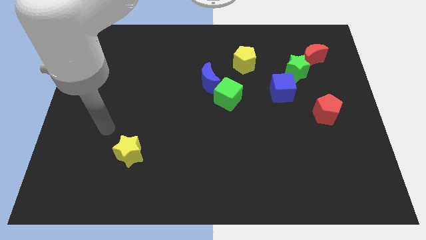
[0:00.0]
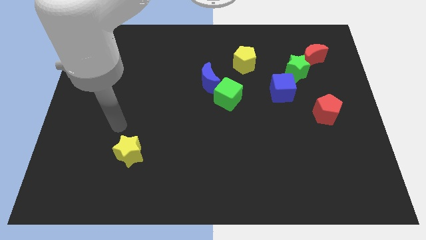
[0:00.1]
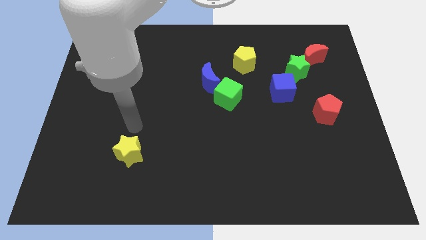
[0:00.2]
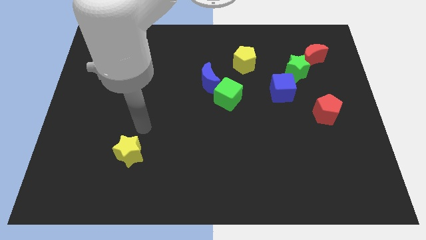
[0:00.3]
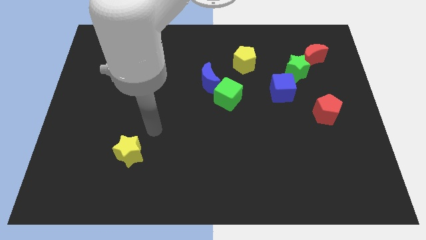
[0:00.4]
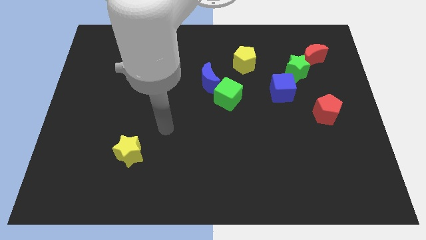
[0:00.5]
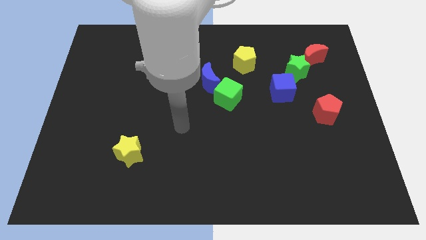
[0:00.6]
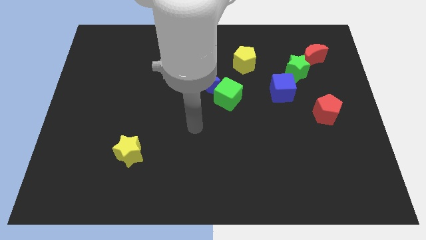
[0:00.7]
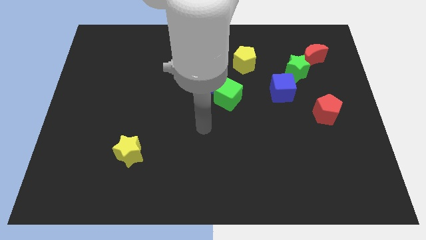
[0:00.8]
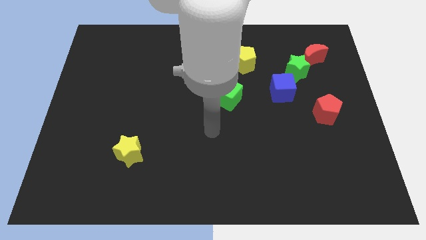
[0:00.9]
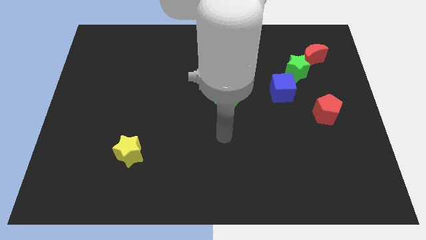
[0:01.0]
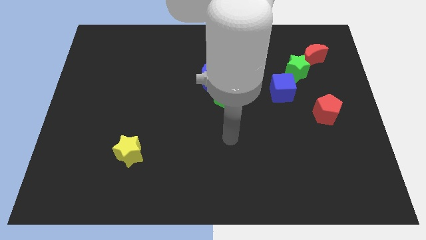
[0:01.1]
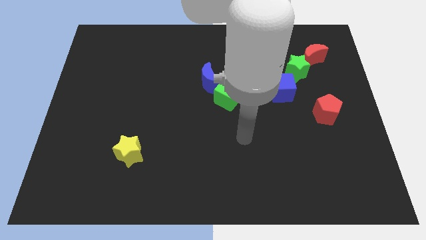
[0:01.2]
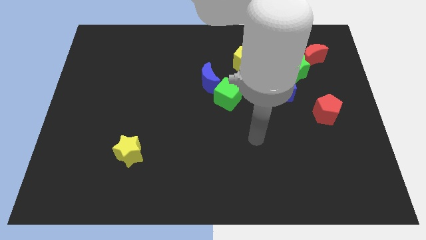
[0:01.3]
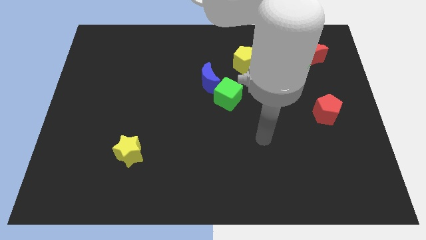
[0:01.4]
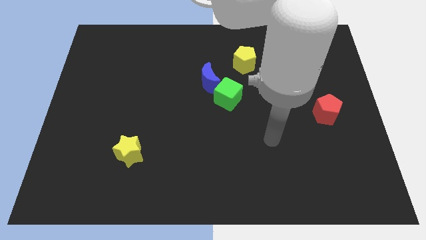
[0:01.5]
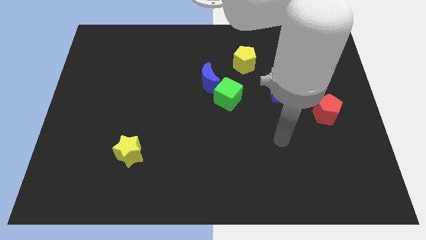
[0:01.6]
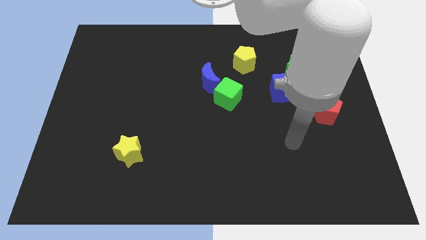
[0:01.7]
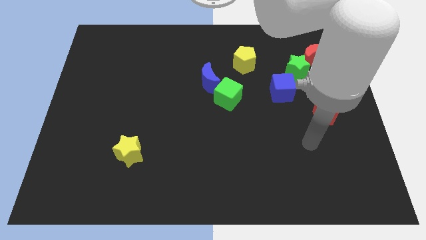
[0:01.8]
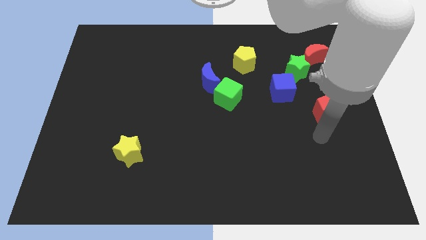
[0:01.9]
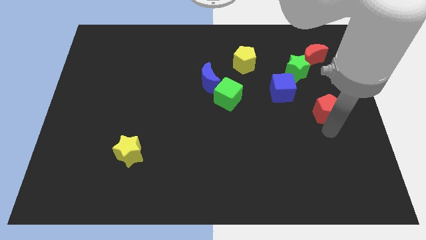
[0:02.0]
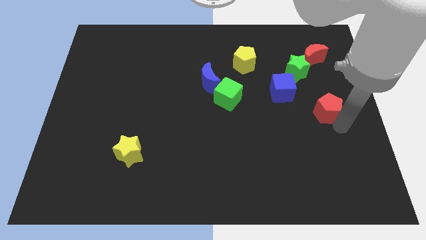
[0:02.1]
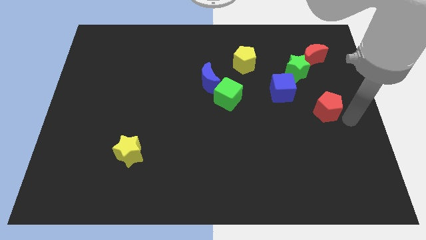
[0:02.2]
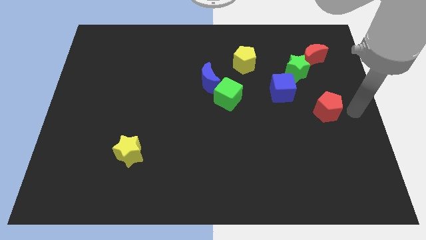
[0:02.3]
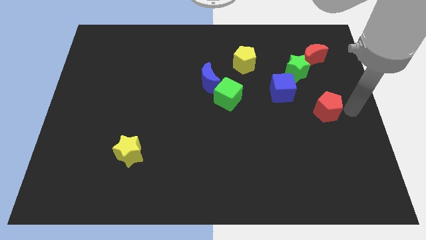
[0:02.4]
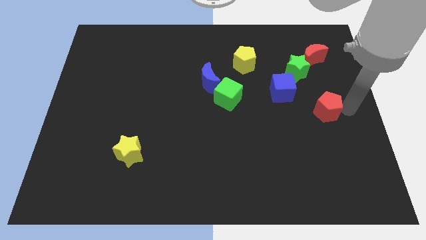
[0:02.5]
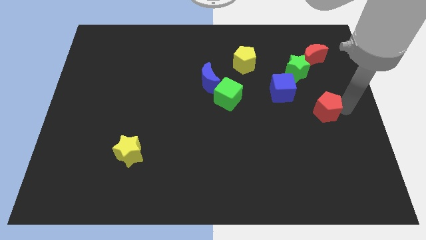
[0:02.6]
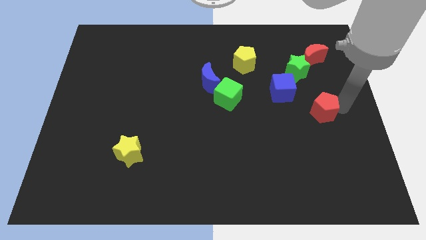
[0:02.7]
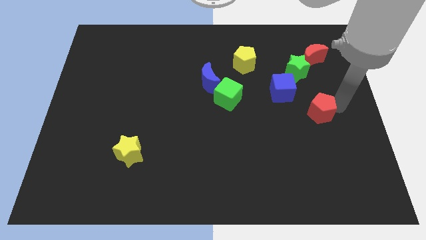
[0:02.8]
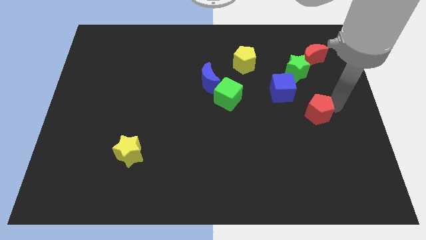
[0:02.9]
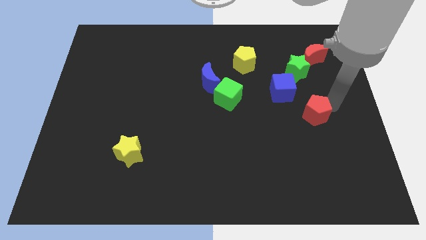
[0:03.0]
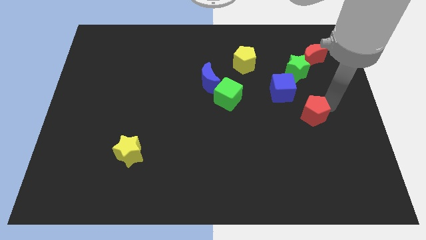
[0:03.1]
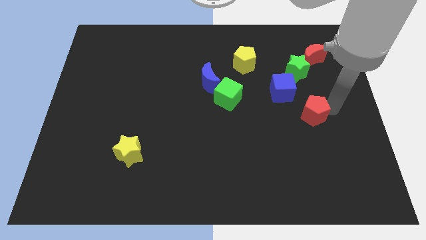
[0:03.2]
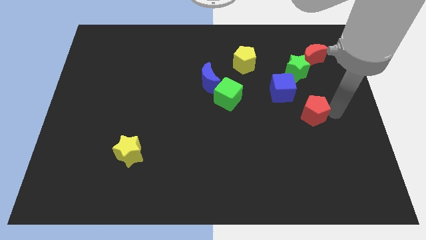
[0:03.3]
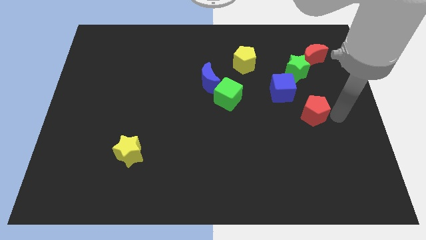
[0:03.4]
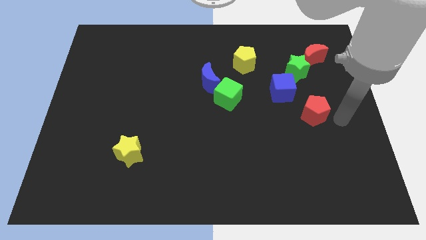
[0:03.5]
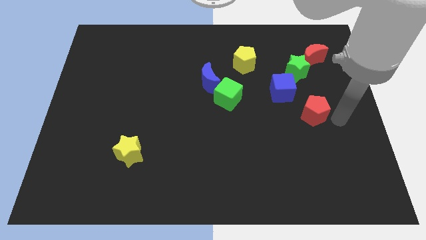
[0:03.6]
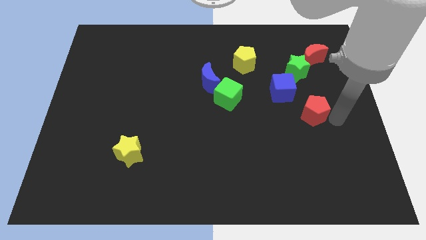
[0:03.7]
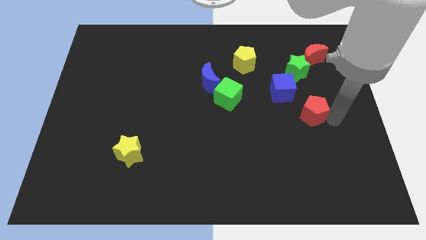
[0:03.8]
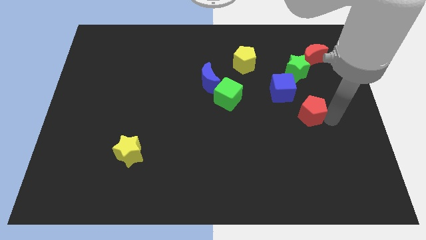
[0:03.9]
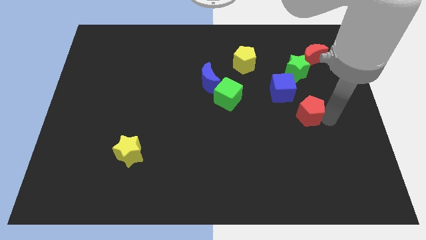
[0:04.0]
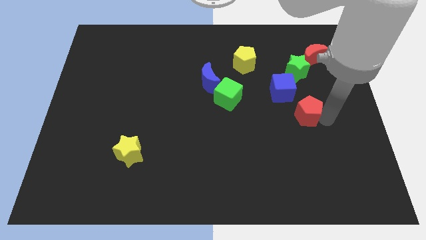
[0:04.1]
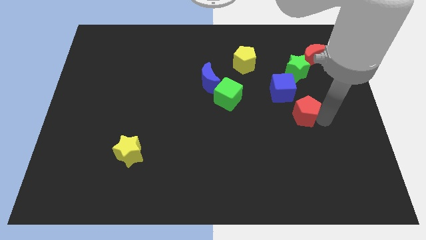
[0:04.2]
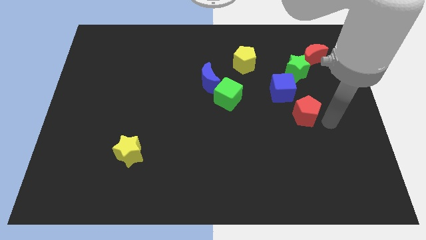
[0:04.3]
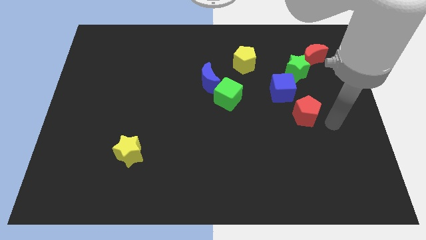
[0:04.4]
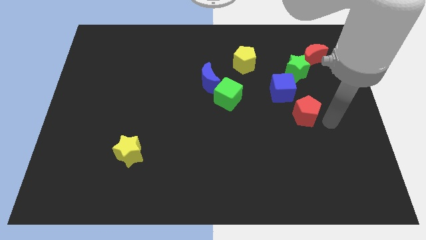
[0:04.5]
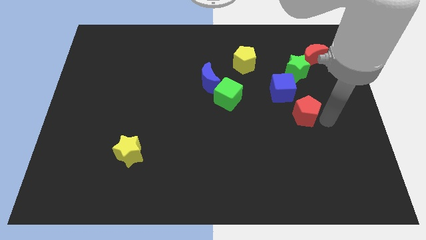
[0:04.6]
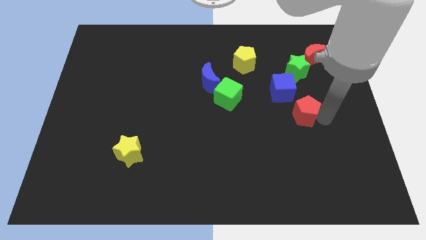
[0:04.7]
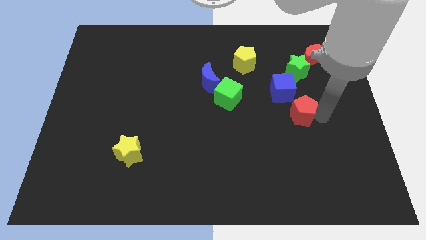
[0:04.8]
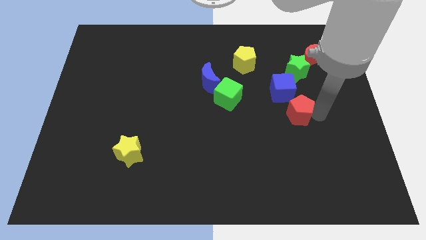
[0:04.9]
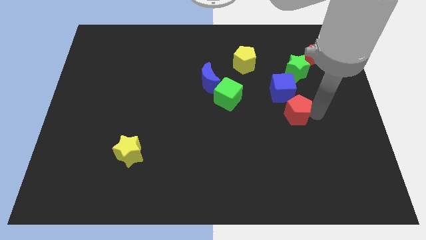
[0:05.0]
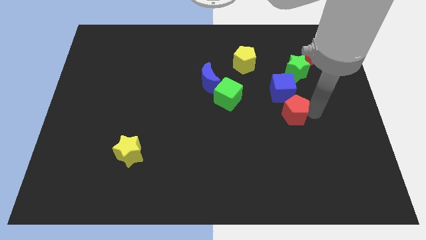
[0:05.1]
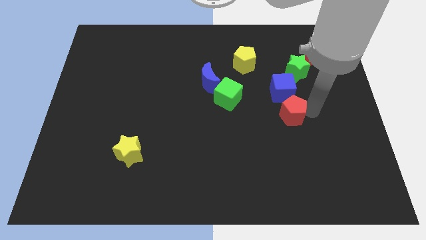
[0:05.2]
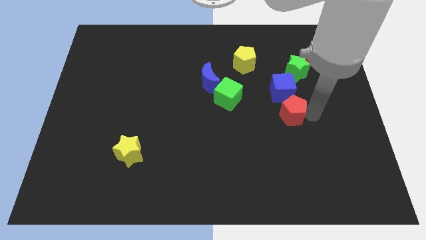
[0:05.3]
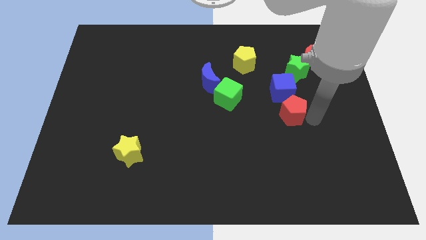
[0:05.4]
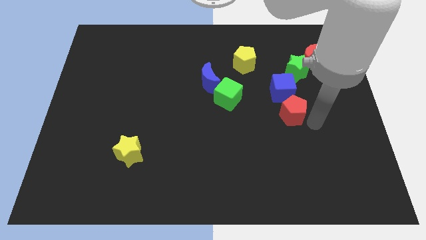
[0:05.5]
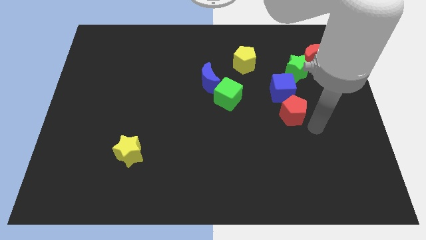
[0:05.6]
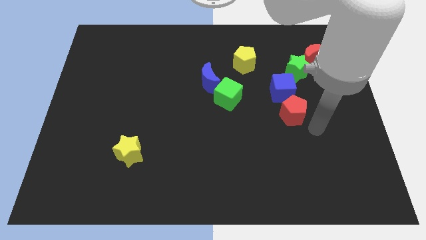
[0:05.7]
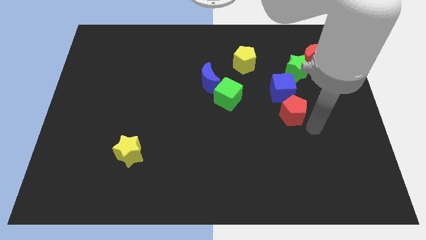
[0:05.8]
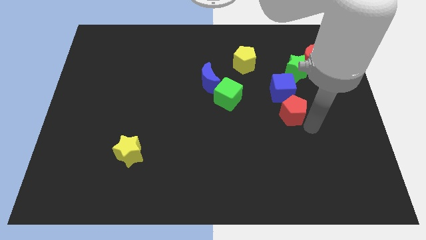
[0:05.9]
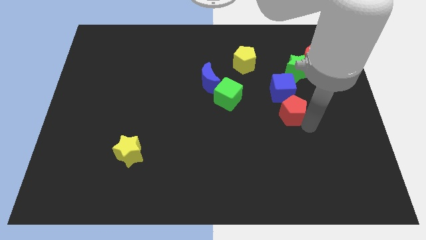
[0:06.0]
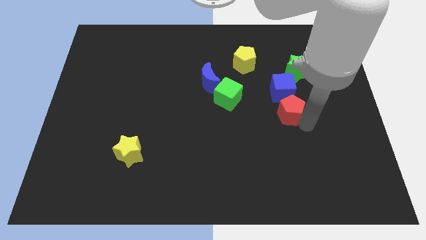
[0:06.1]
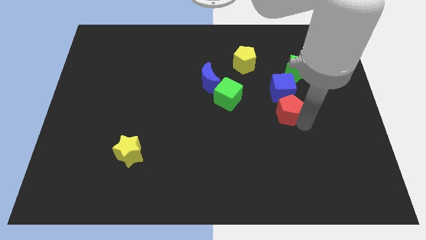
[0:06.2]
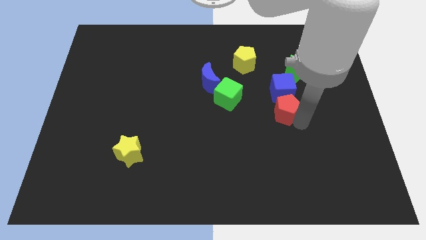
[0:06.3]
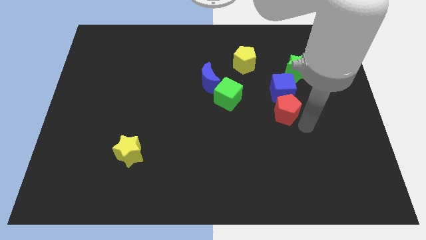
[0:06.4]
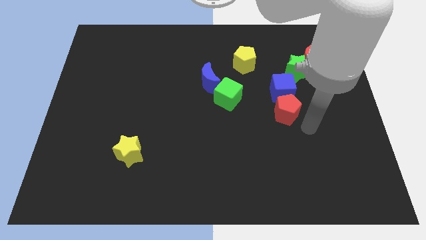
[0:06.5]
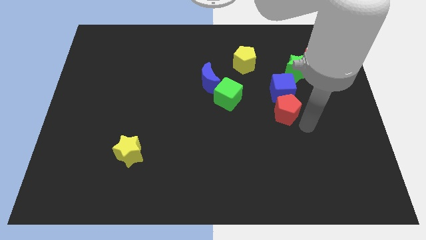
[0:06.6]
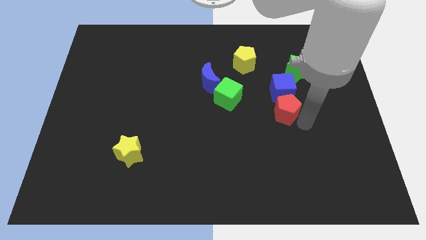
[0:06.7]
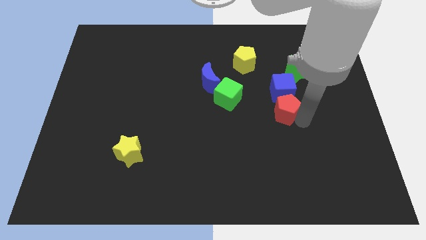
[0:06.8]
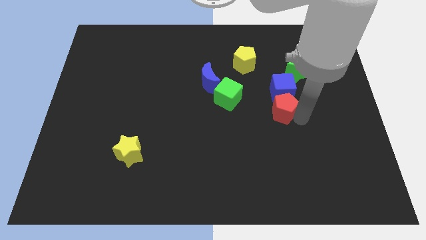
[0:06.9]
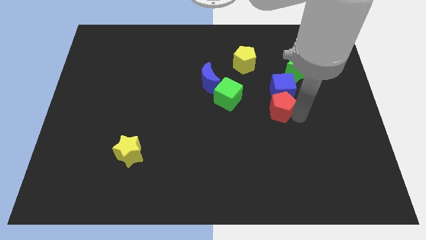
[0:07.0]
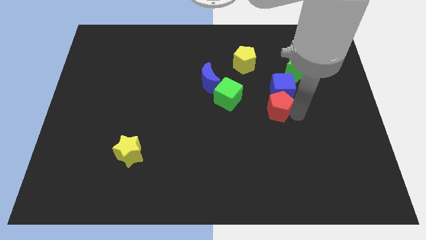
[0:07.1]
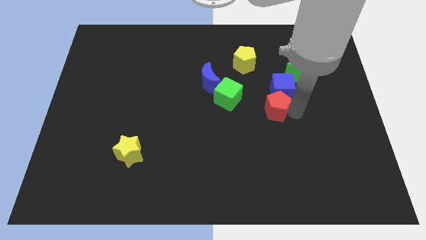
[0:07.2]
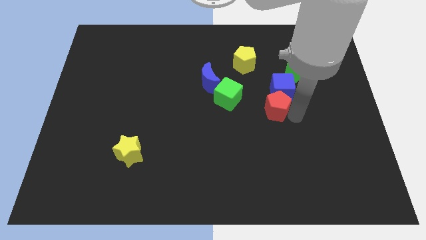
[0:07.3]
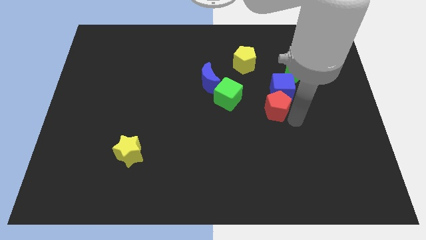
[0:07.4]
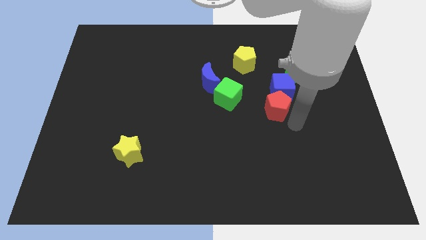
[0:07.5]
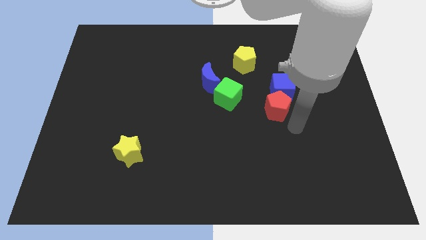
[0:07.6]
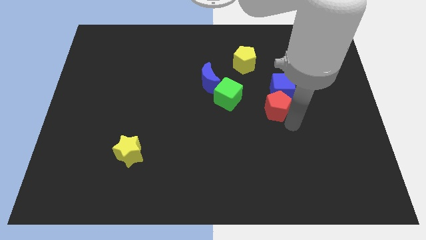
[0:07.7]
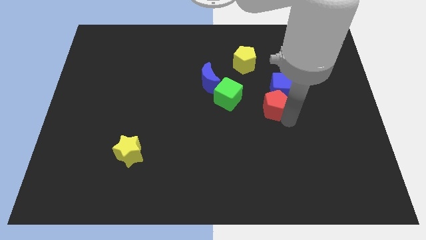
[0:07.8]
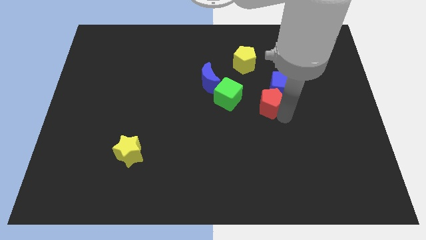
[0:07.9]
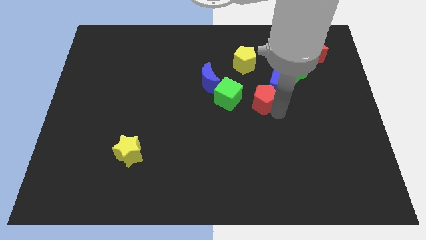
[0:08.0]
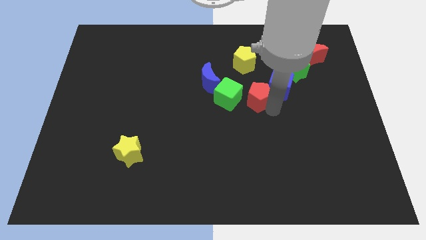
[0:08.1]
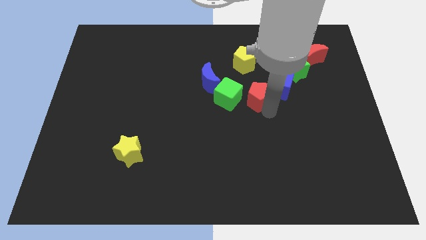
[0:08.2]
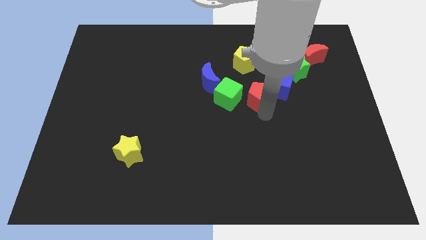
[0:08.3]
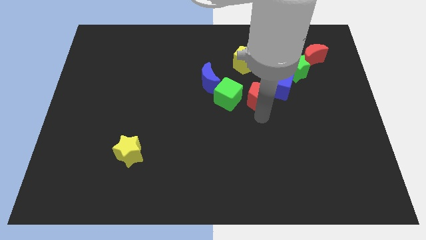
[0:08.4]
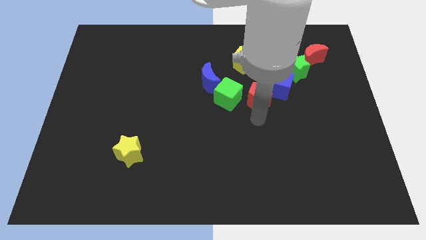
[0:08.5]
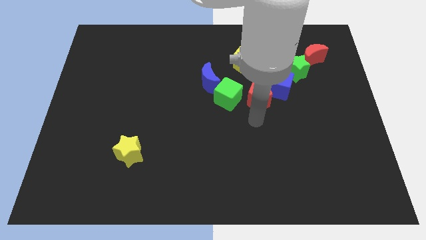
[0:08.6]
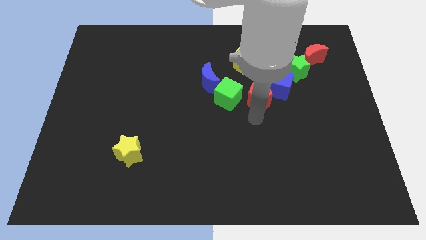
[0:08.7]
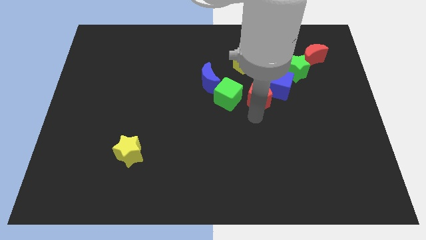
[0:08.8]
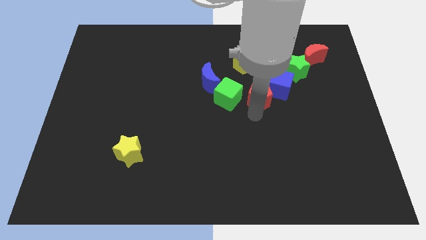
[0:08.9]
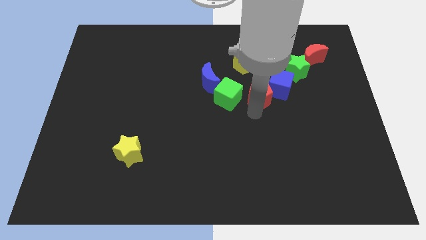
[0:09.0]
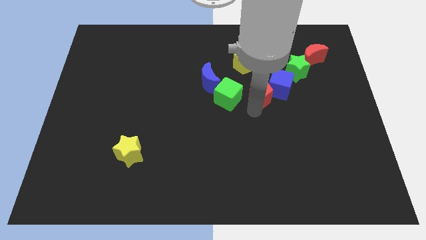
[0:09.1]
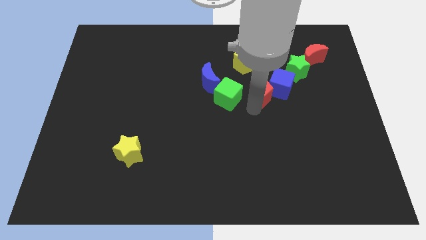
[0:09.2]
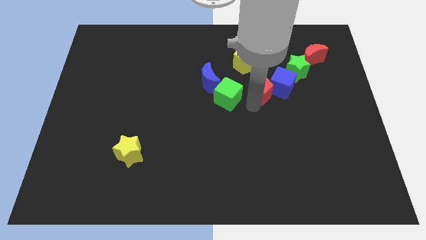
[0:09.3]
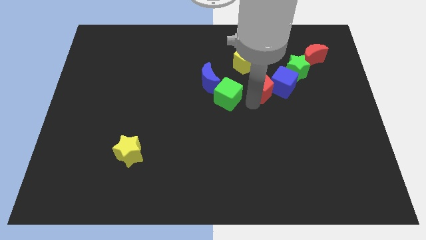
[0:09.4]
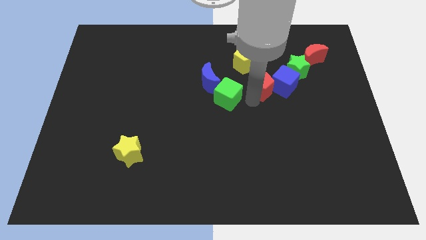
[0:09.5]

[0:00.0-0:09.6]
move the red pentagon to the top left side of the blue cube
